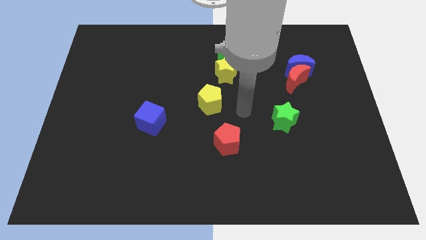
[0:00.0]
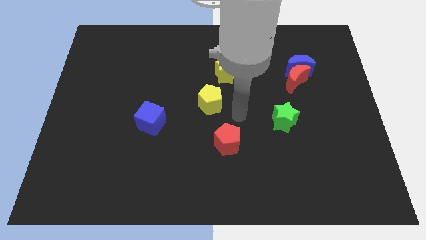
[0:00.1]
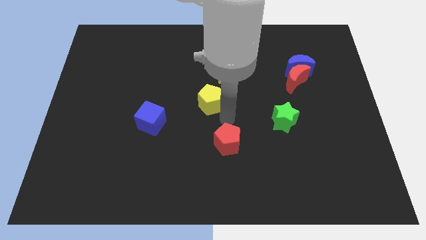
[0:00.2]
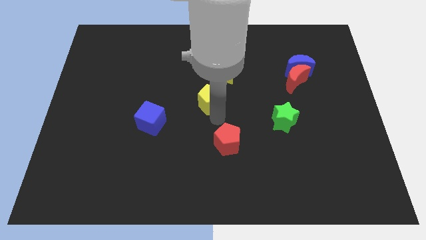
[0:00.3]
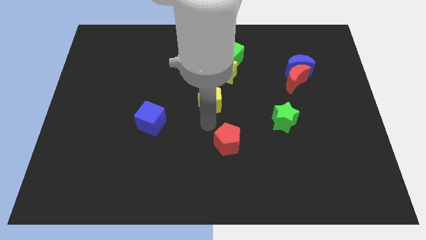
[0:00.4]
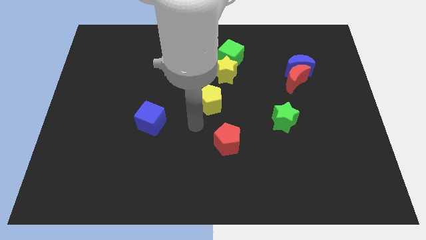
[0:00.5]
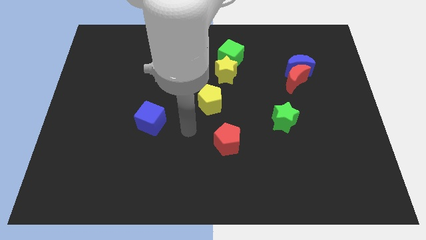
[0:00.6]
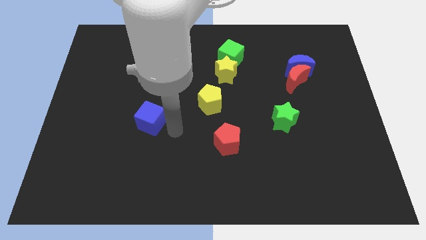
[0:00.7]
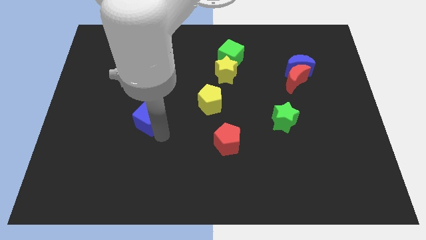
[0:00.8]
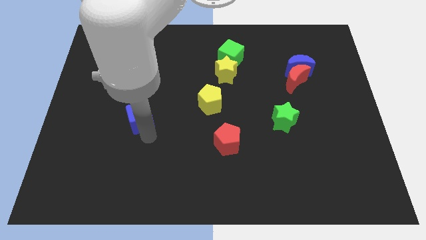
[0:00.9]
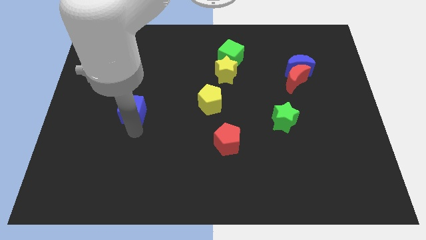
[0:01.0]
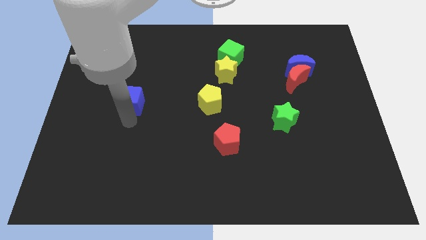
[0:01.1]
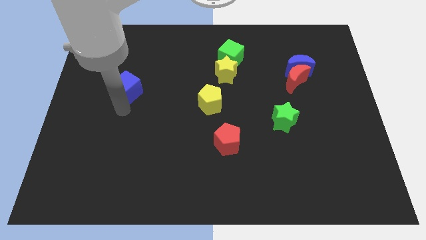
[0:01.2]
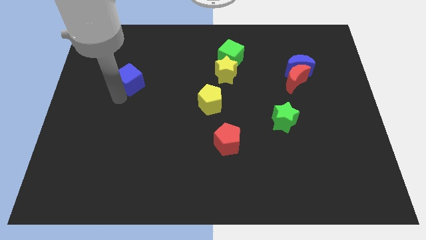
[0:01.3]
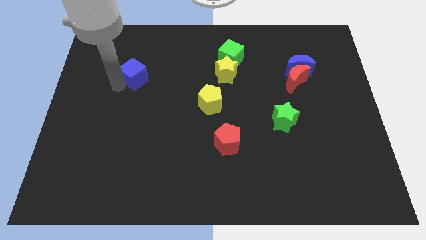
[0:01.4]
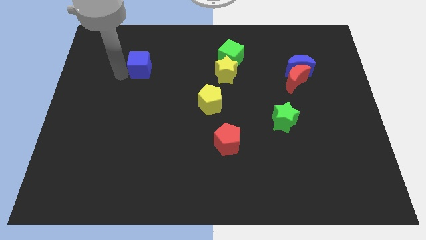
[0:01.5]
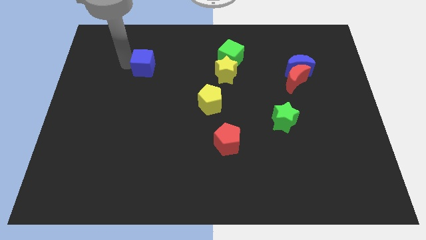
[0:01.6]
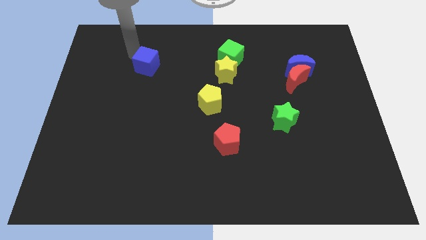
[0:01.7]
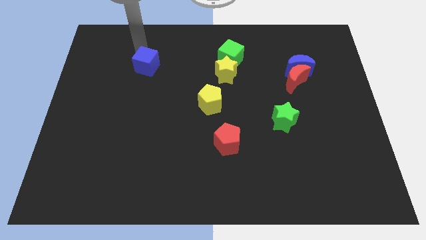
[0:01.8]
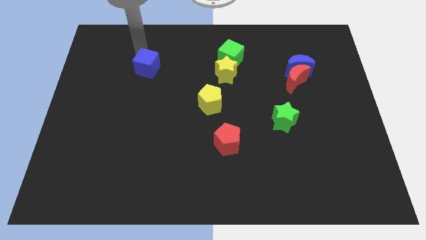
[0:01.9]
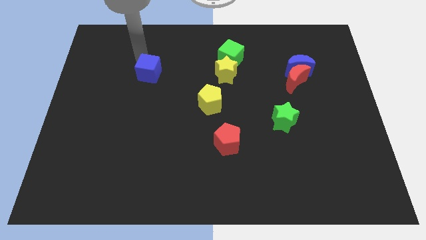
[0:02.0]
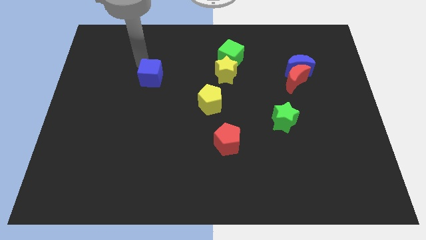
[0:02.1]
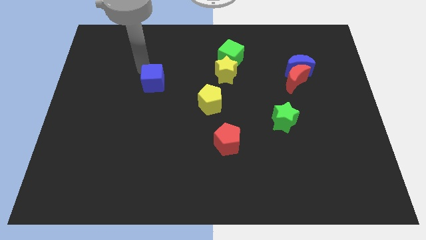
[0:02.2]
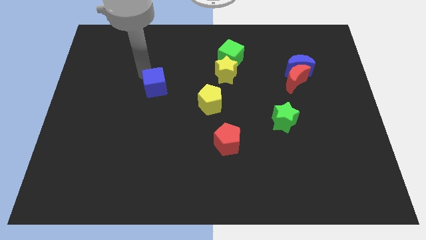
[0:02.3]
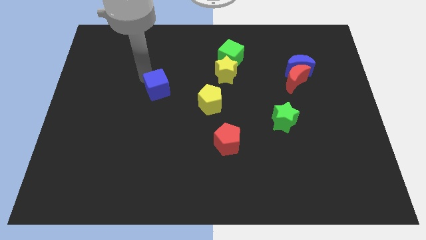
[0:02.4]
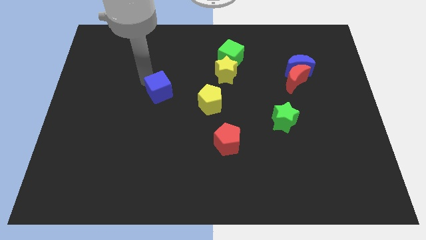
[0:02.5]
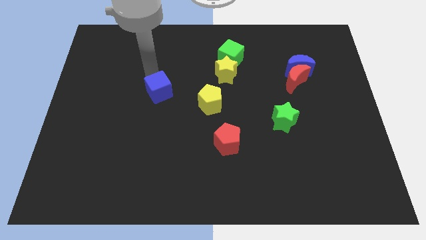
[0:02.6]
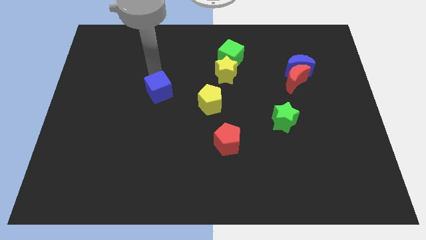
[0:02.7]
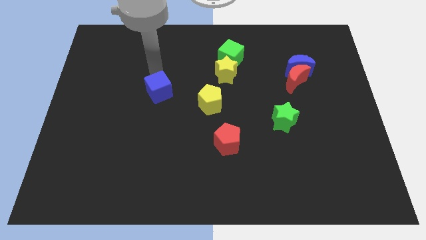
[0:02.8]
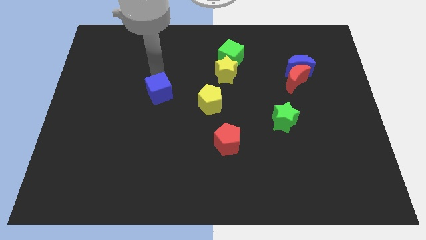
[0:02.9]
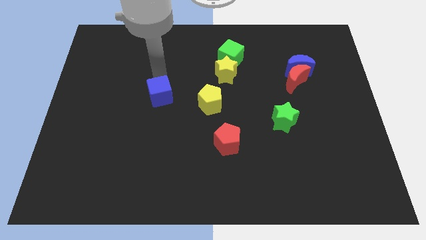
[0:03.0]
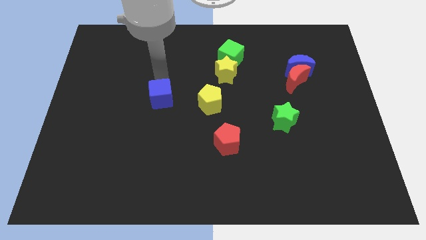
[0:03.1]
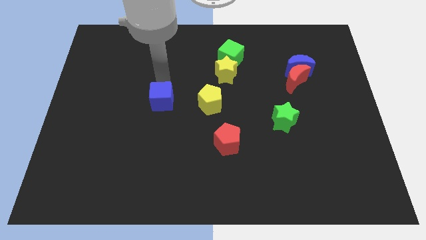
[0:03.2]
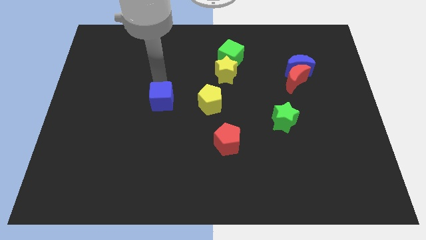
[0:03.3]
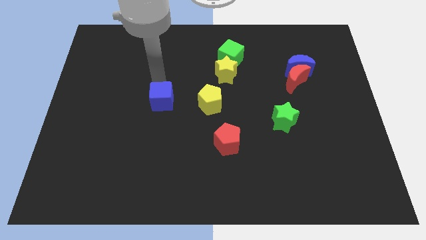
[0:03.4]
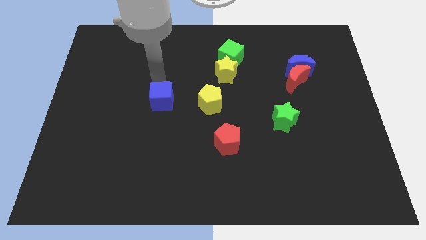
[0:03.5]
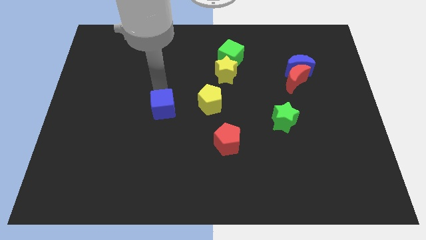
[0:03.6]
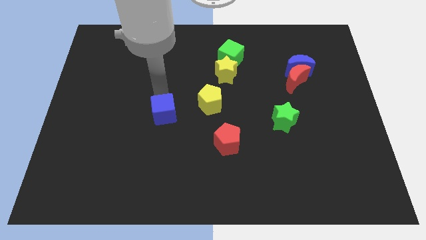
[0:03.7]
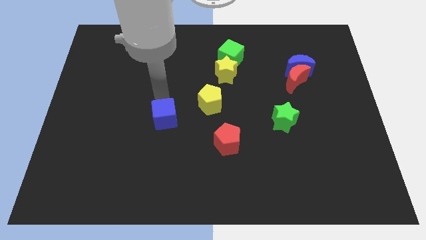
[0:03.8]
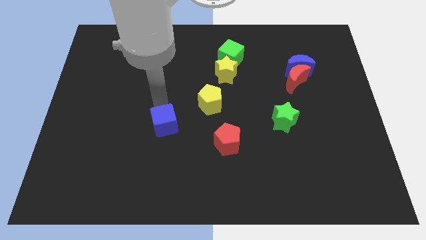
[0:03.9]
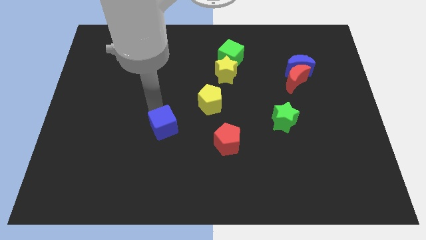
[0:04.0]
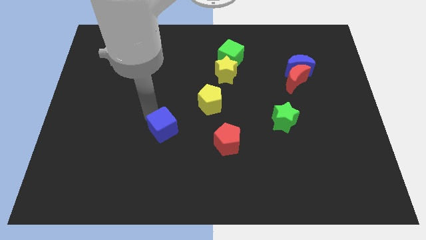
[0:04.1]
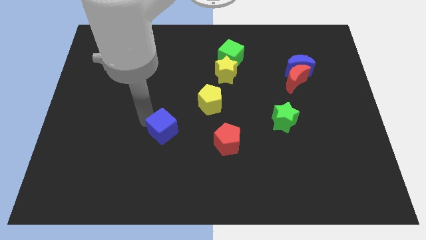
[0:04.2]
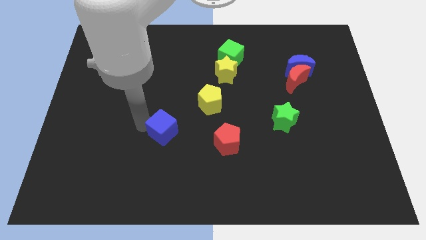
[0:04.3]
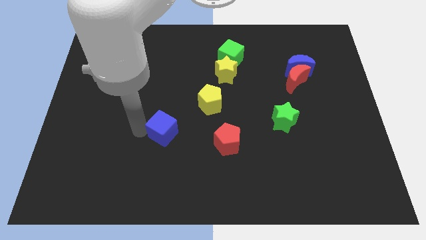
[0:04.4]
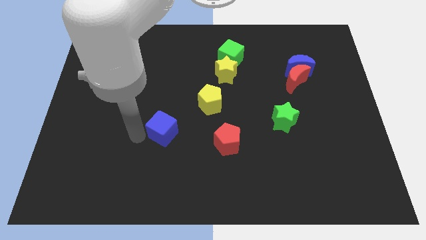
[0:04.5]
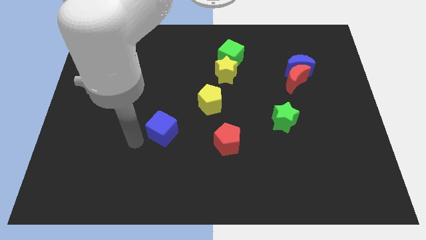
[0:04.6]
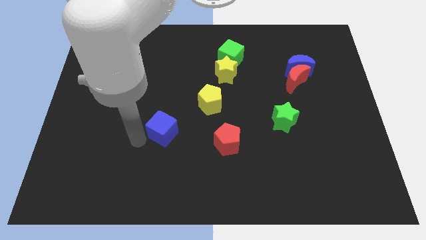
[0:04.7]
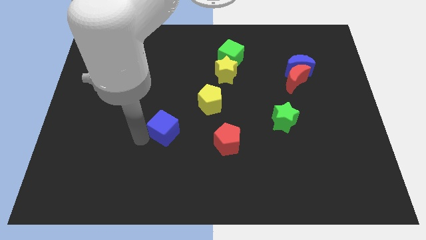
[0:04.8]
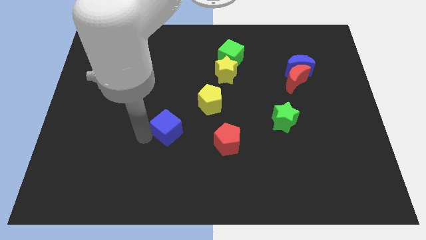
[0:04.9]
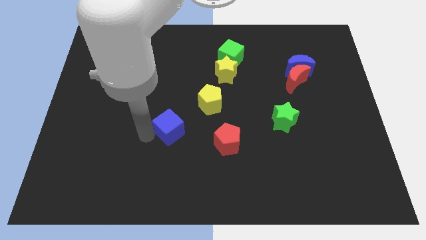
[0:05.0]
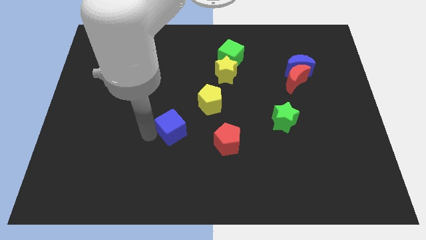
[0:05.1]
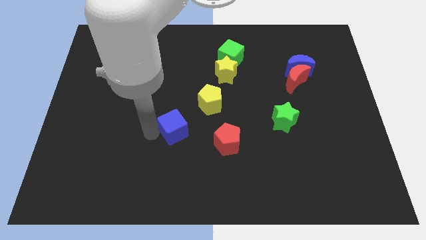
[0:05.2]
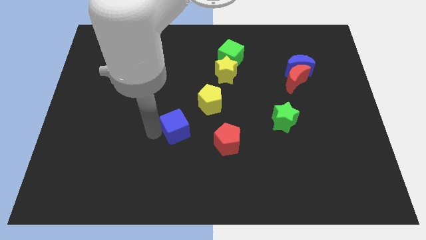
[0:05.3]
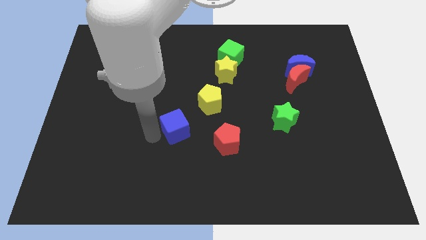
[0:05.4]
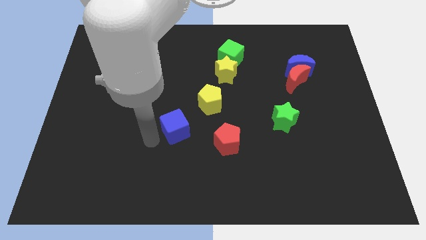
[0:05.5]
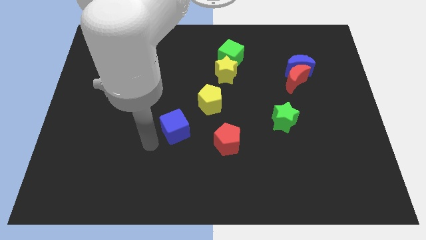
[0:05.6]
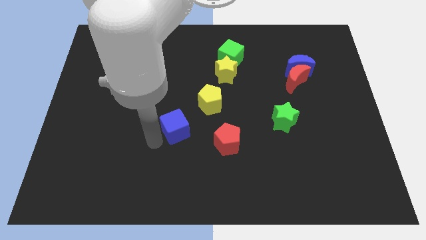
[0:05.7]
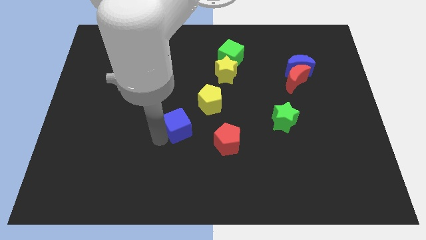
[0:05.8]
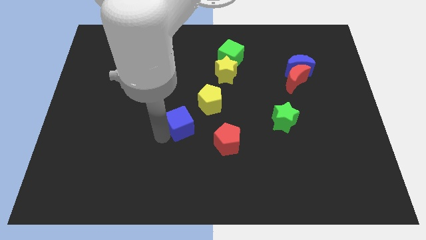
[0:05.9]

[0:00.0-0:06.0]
slightly push the blue cube right

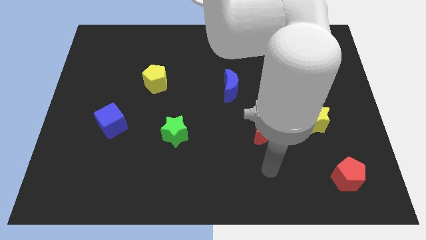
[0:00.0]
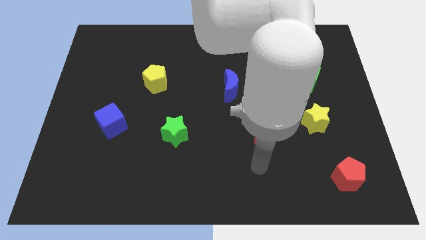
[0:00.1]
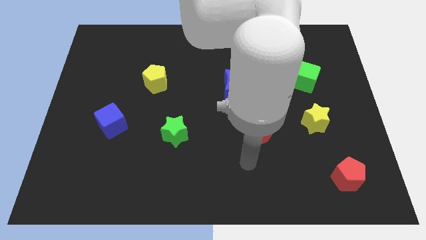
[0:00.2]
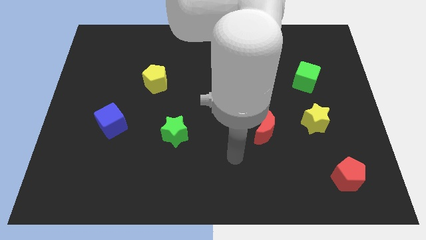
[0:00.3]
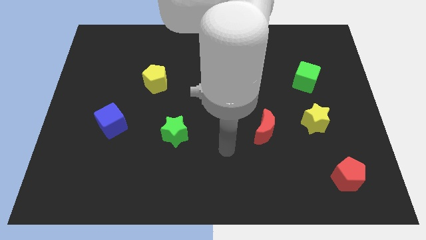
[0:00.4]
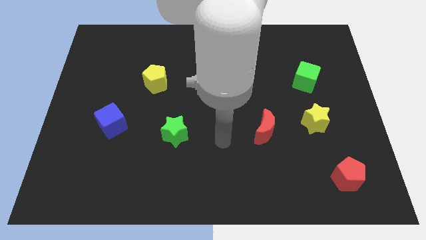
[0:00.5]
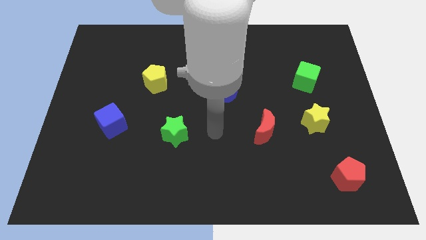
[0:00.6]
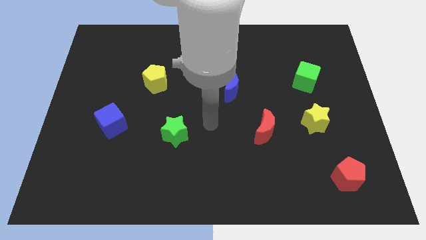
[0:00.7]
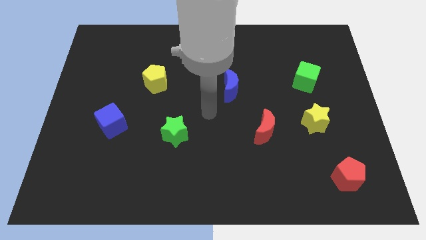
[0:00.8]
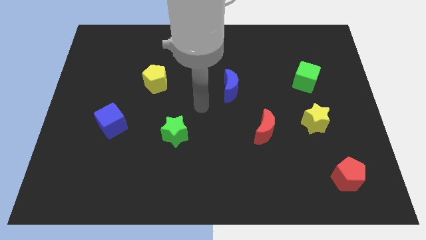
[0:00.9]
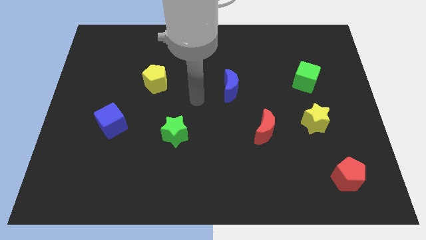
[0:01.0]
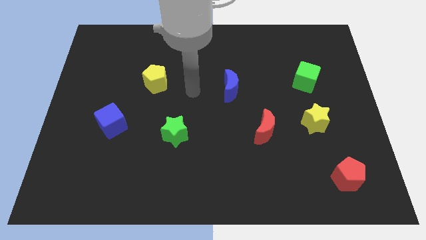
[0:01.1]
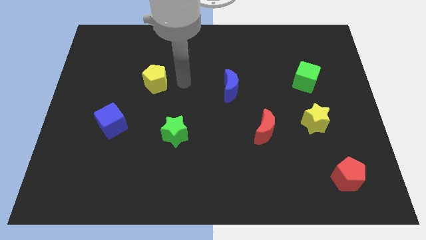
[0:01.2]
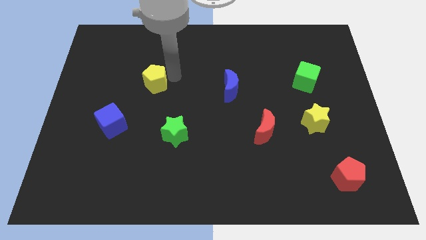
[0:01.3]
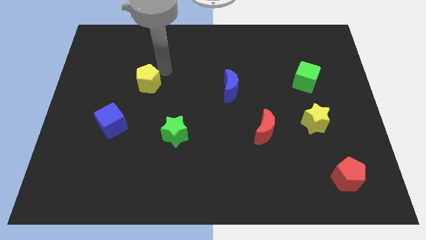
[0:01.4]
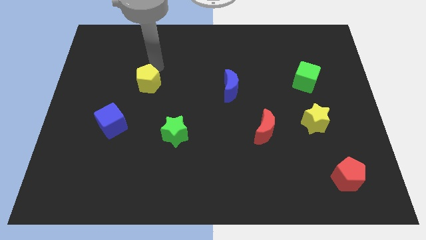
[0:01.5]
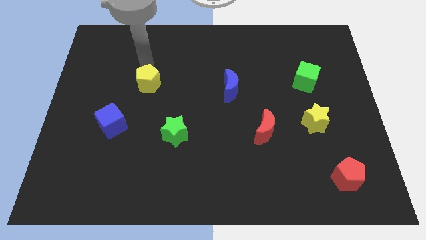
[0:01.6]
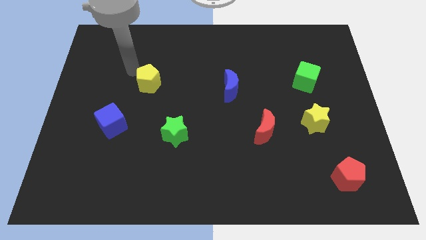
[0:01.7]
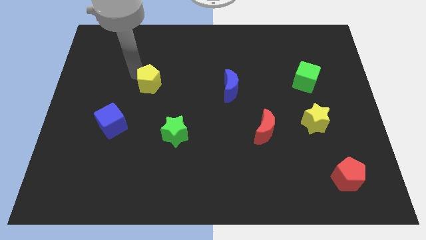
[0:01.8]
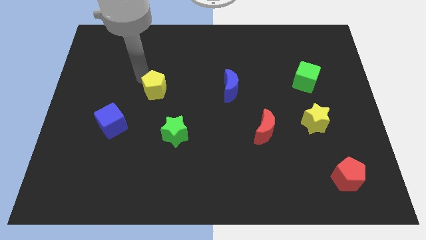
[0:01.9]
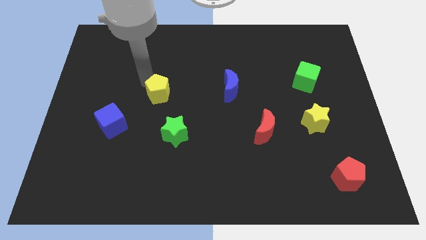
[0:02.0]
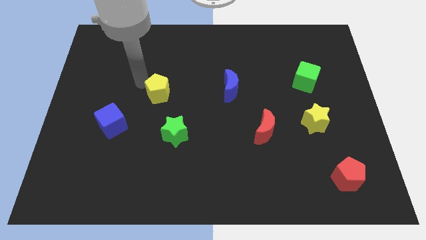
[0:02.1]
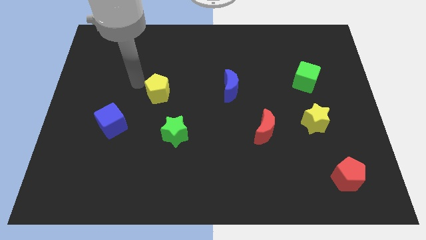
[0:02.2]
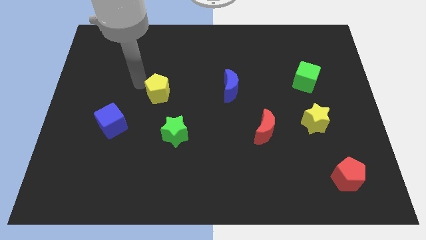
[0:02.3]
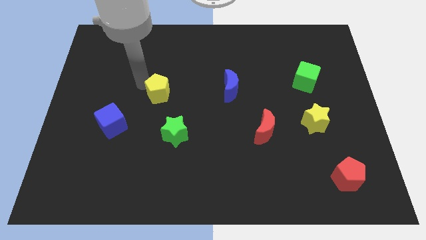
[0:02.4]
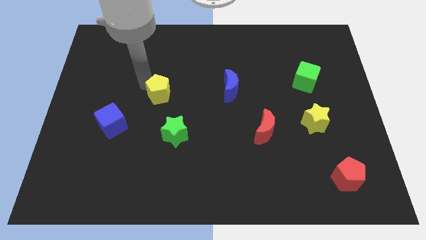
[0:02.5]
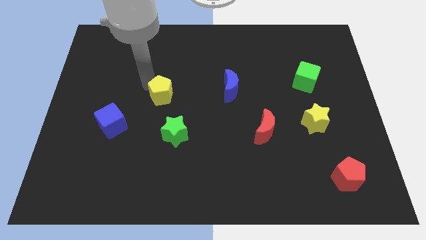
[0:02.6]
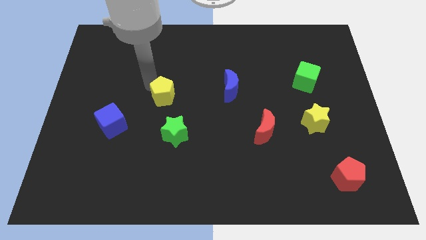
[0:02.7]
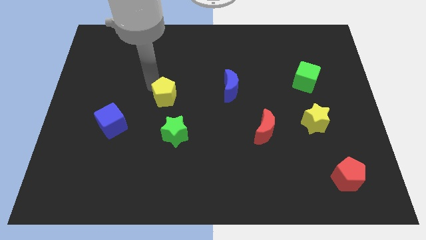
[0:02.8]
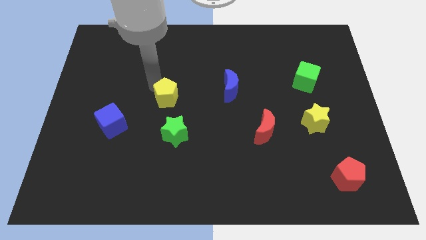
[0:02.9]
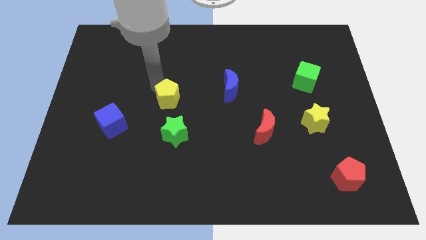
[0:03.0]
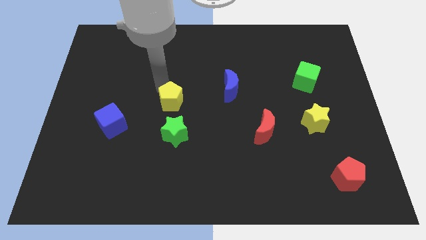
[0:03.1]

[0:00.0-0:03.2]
slightly slide the yellow pentagon downwards and right diagonally
